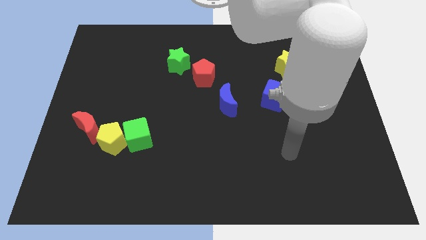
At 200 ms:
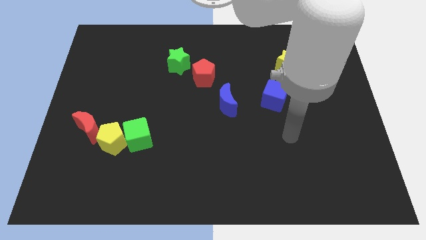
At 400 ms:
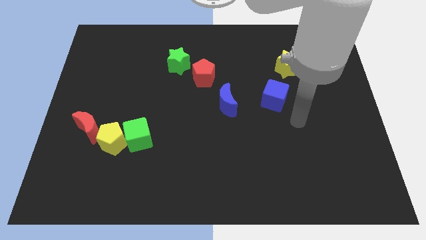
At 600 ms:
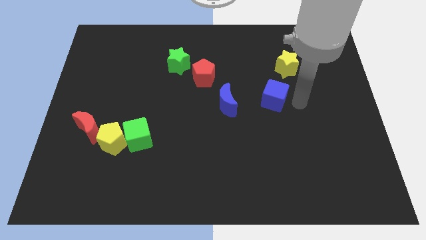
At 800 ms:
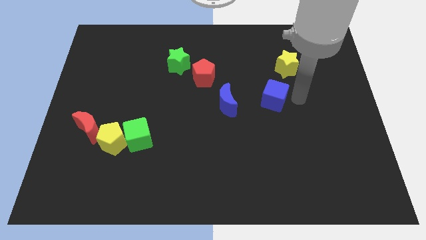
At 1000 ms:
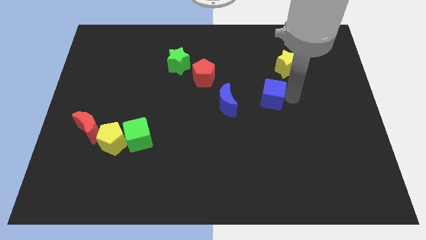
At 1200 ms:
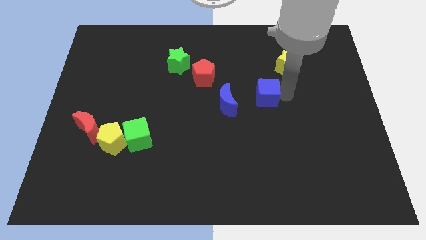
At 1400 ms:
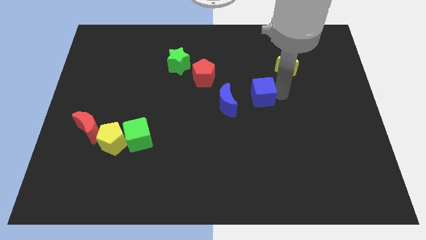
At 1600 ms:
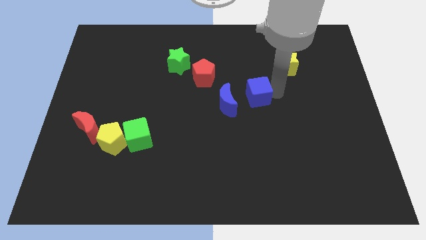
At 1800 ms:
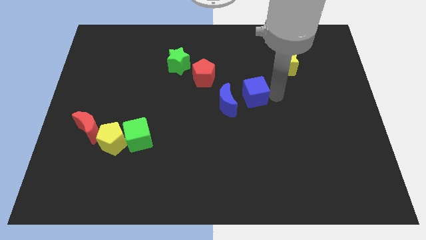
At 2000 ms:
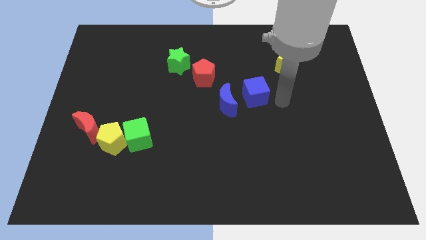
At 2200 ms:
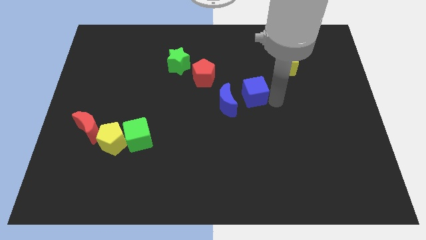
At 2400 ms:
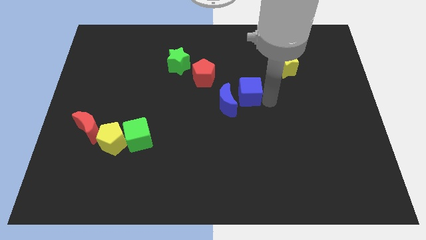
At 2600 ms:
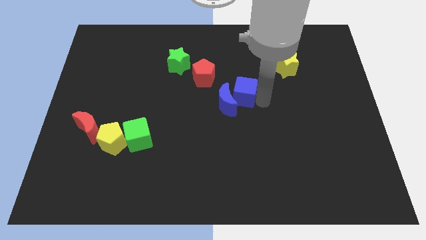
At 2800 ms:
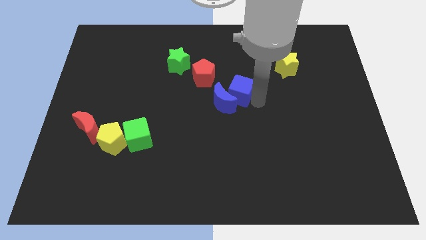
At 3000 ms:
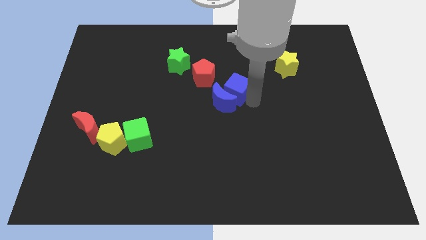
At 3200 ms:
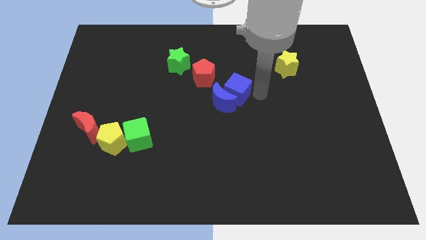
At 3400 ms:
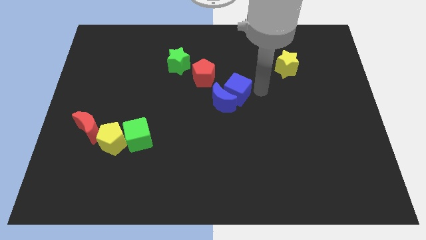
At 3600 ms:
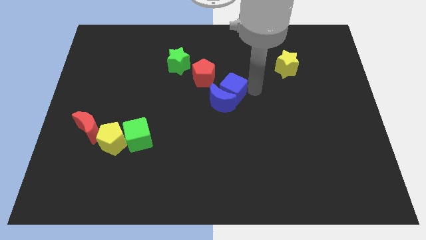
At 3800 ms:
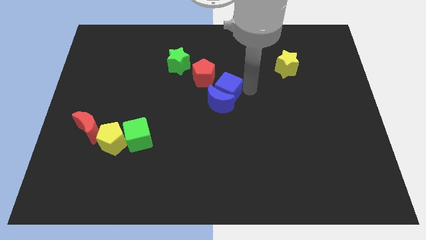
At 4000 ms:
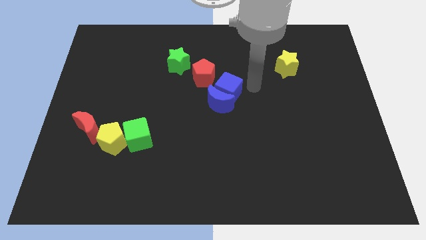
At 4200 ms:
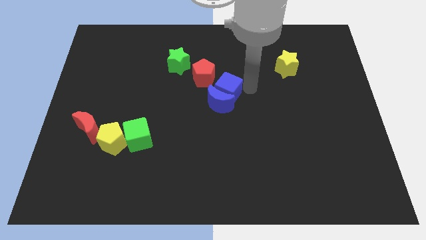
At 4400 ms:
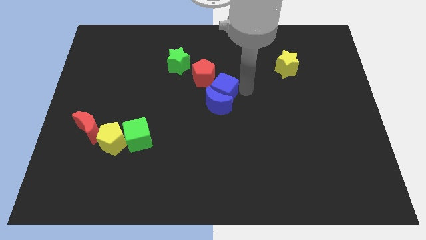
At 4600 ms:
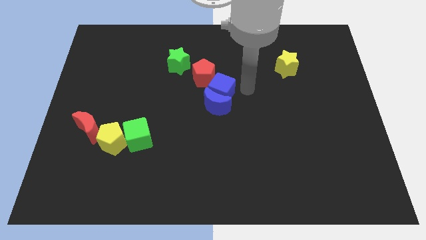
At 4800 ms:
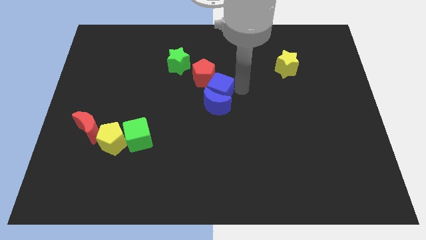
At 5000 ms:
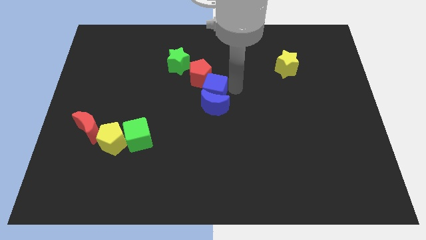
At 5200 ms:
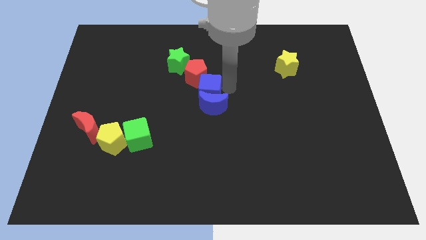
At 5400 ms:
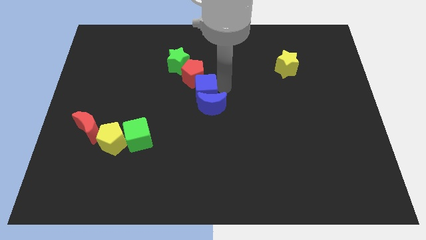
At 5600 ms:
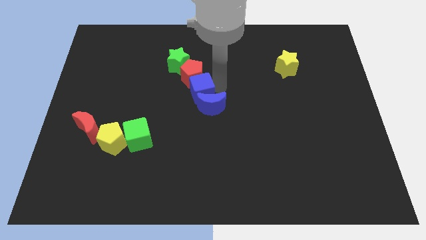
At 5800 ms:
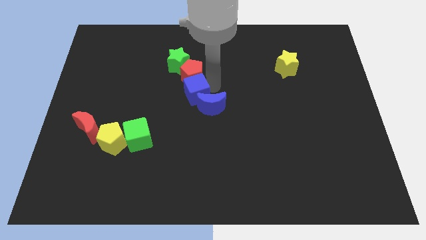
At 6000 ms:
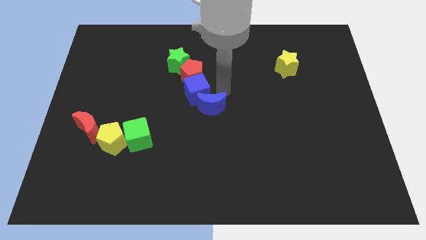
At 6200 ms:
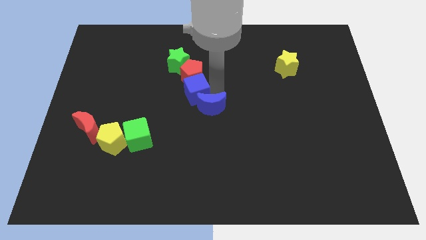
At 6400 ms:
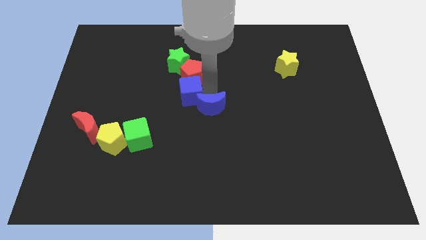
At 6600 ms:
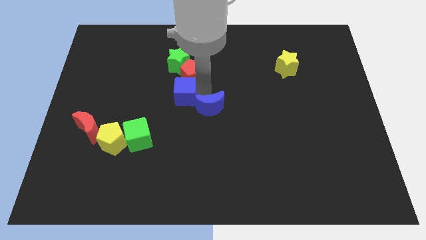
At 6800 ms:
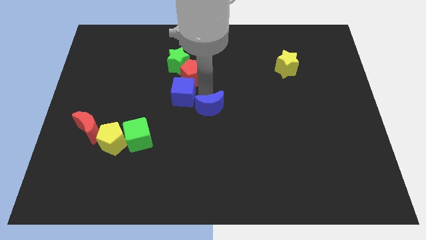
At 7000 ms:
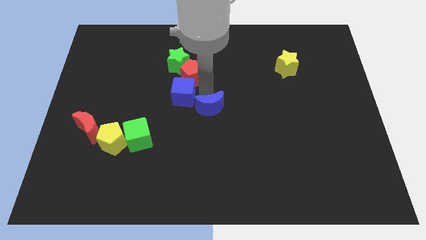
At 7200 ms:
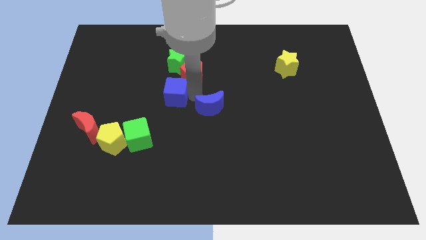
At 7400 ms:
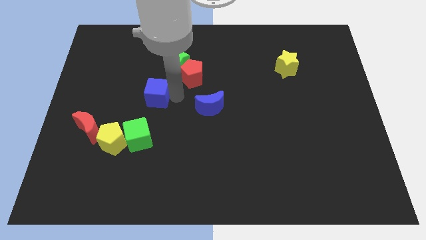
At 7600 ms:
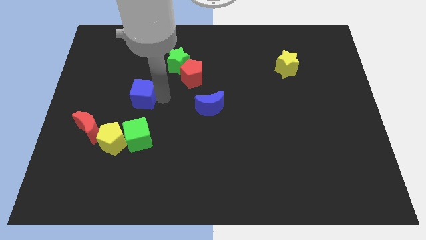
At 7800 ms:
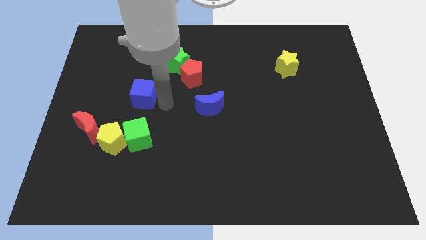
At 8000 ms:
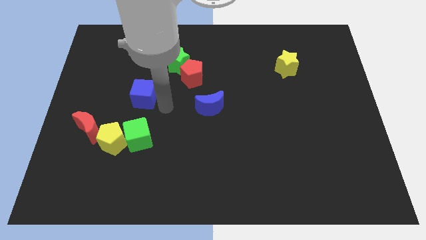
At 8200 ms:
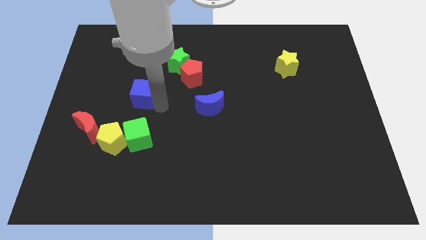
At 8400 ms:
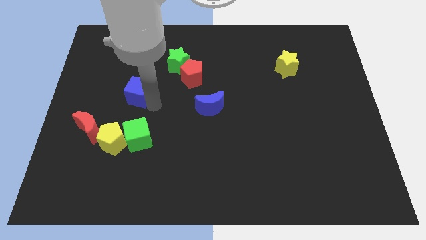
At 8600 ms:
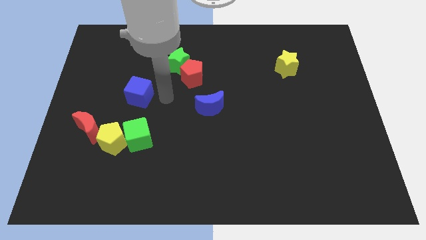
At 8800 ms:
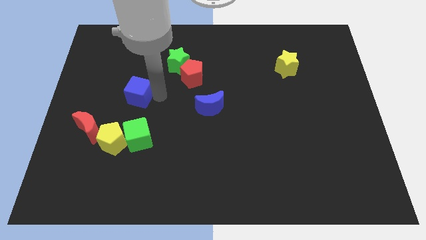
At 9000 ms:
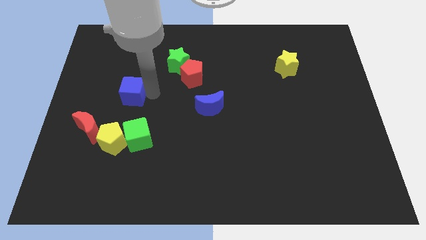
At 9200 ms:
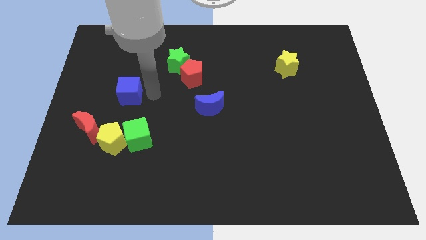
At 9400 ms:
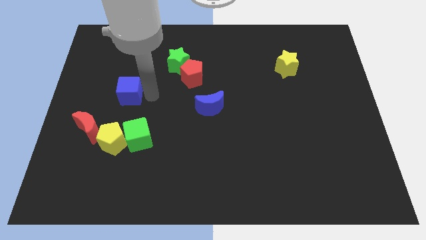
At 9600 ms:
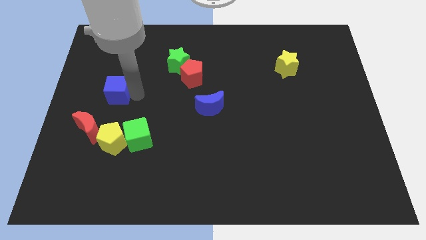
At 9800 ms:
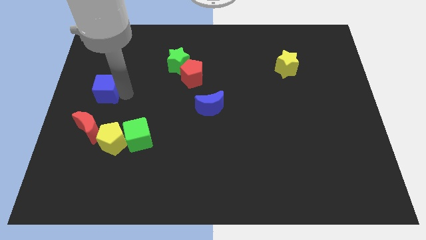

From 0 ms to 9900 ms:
move the blue cube to the left side

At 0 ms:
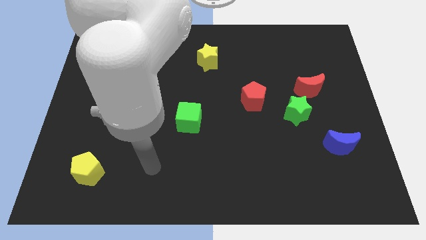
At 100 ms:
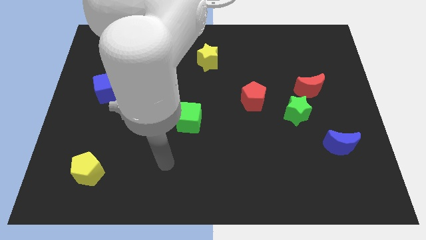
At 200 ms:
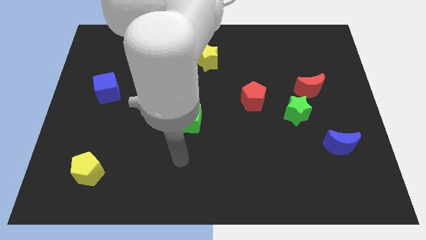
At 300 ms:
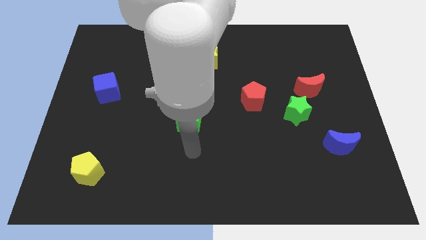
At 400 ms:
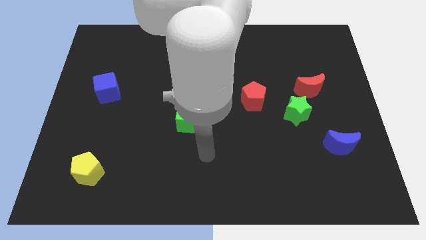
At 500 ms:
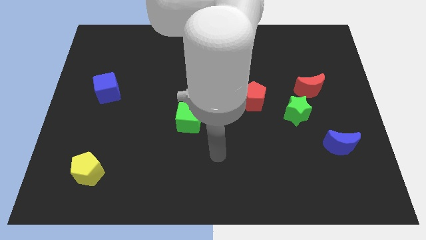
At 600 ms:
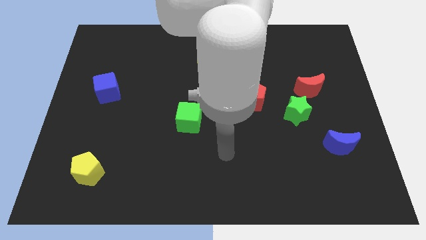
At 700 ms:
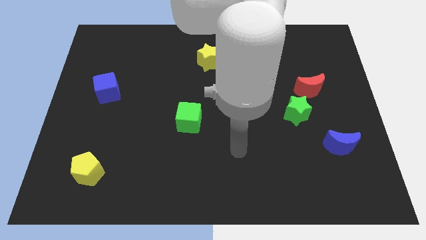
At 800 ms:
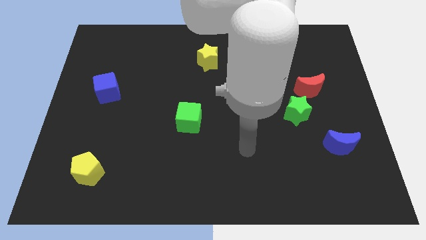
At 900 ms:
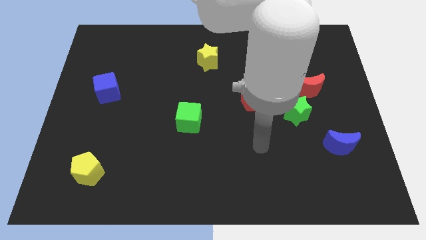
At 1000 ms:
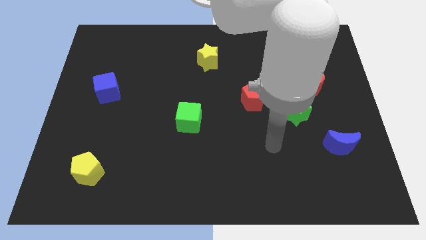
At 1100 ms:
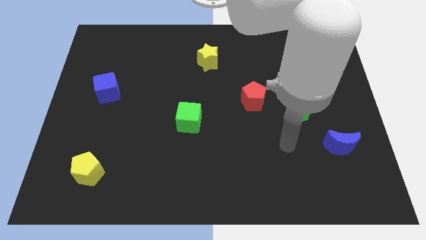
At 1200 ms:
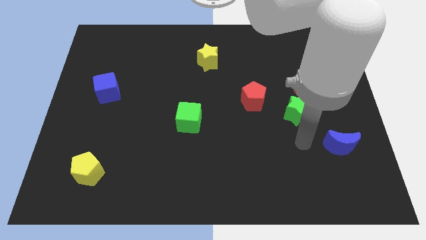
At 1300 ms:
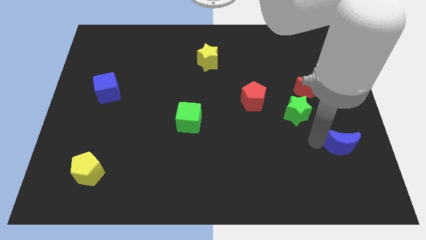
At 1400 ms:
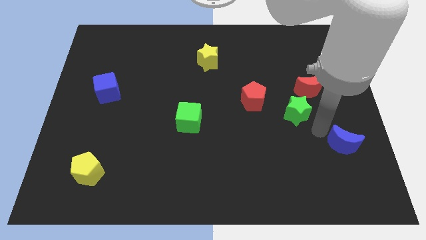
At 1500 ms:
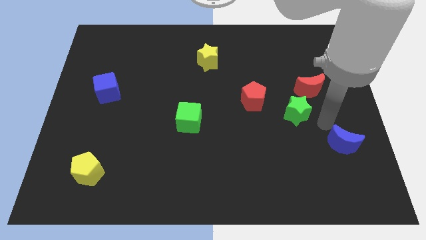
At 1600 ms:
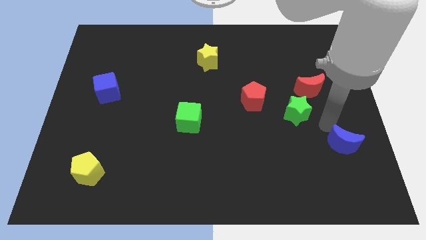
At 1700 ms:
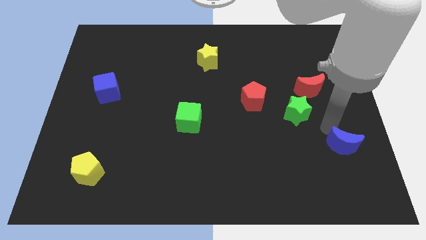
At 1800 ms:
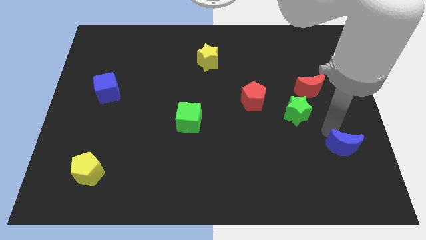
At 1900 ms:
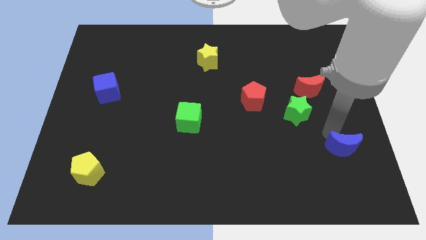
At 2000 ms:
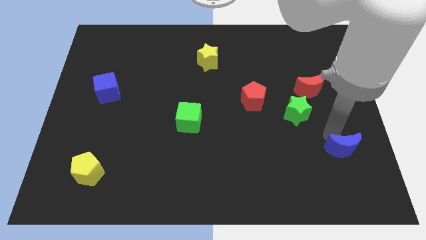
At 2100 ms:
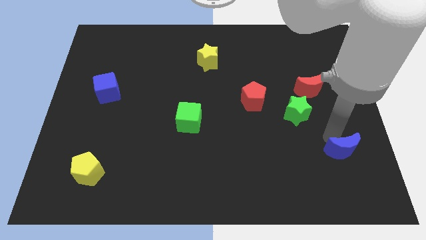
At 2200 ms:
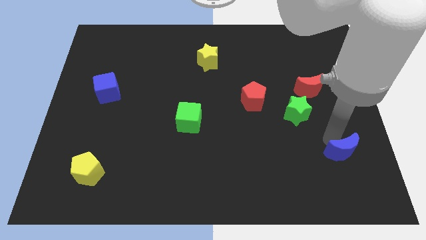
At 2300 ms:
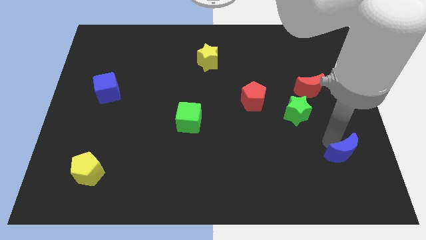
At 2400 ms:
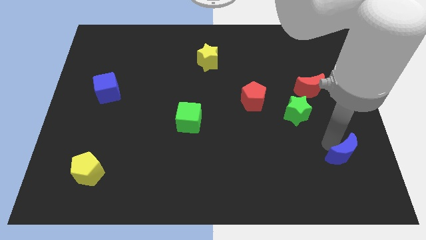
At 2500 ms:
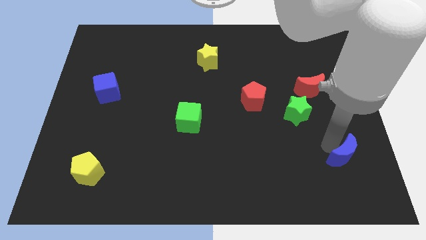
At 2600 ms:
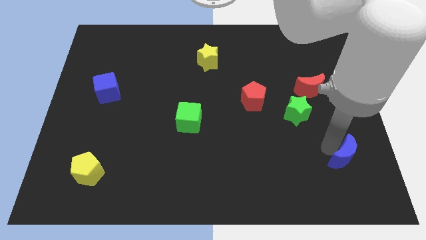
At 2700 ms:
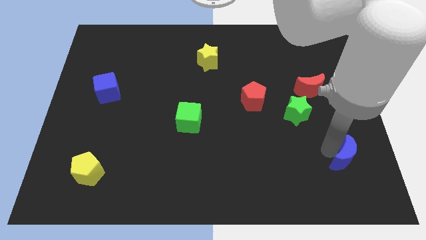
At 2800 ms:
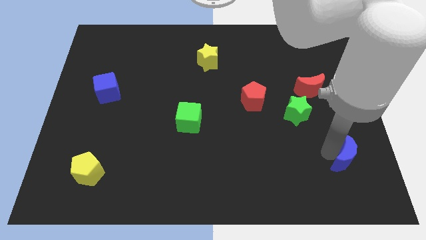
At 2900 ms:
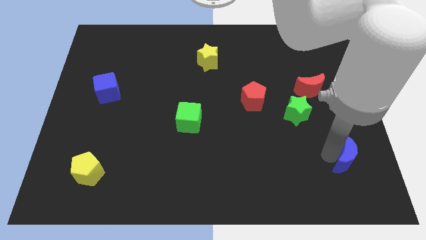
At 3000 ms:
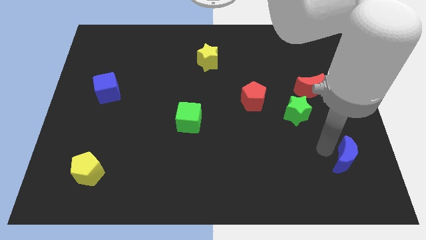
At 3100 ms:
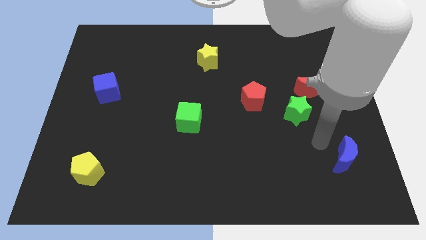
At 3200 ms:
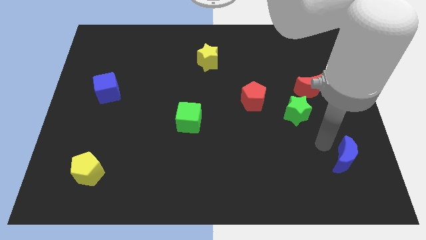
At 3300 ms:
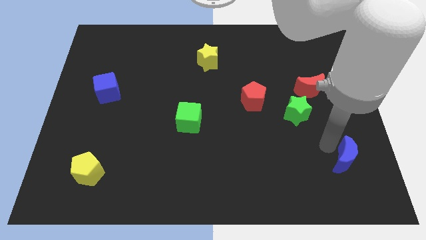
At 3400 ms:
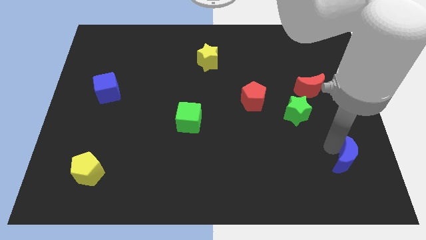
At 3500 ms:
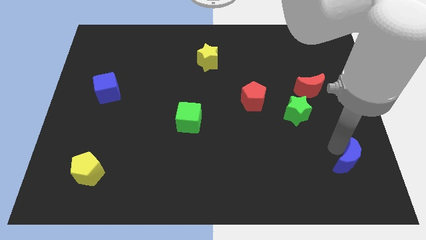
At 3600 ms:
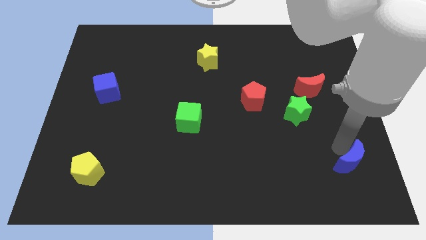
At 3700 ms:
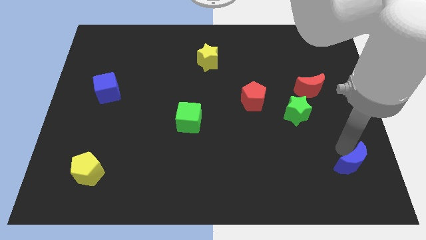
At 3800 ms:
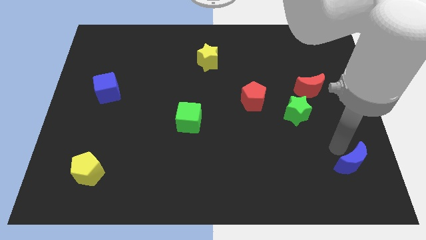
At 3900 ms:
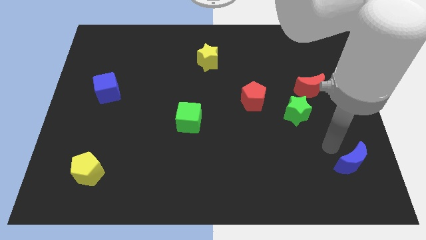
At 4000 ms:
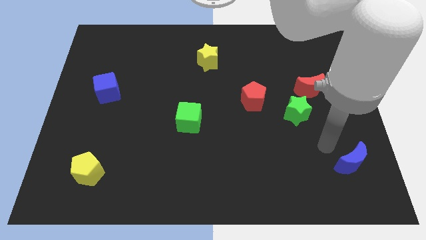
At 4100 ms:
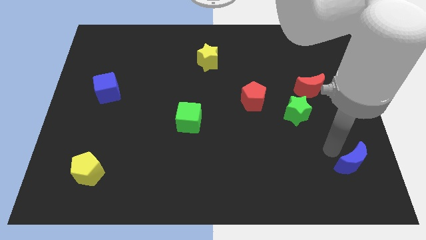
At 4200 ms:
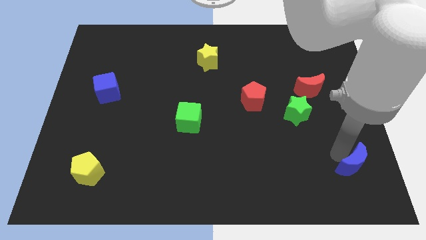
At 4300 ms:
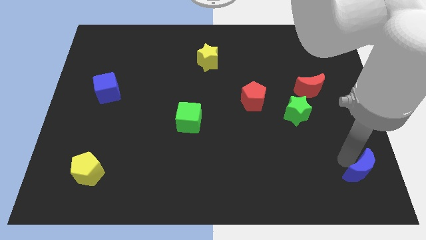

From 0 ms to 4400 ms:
move the blue moon to the bottom right corner
